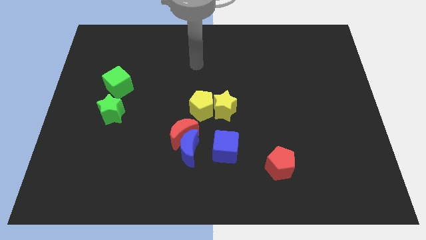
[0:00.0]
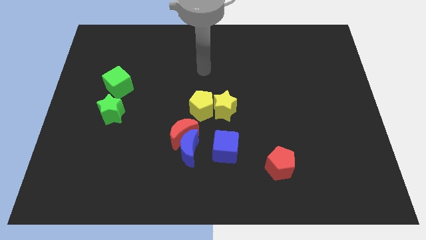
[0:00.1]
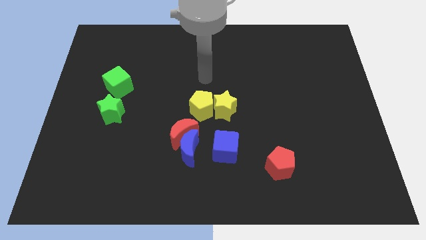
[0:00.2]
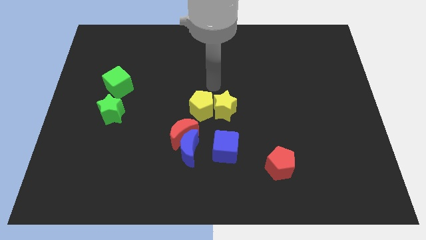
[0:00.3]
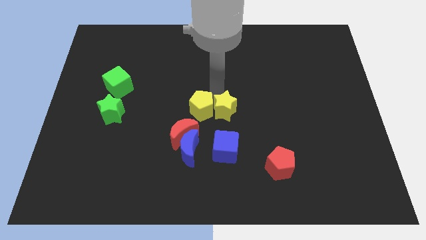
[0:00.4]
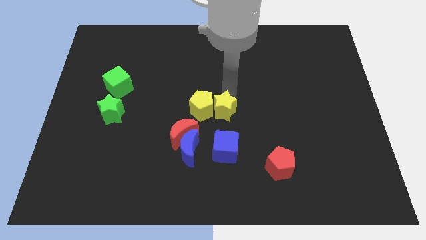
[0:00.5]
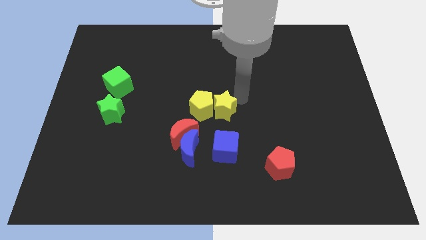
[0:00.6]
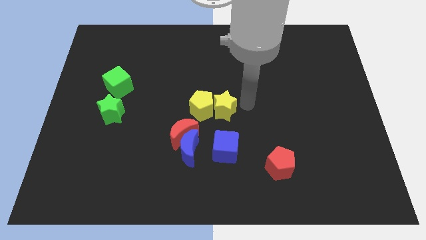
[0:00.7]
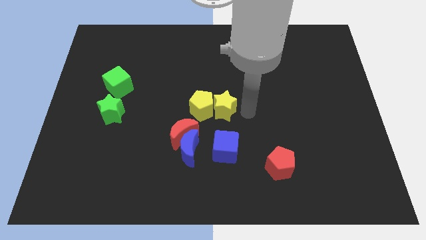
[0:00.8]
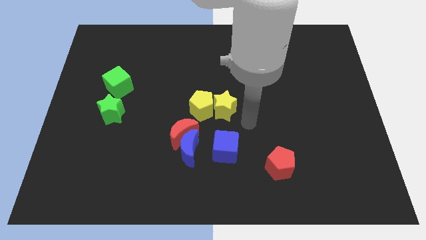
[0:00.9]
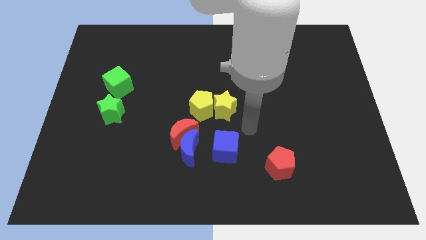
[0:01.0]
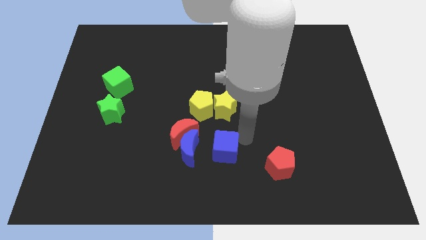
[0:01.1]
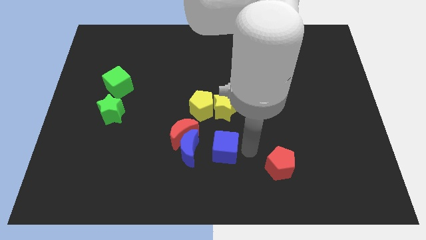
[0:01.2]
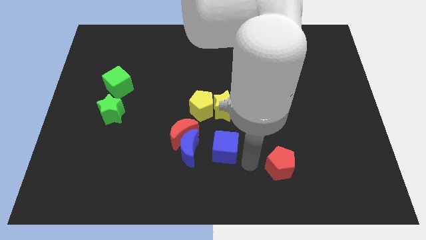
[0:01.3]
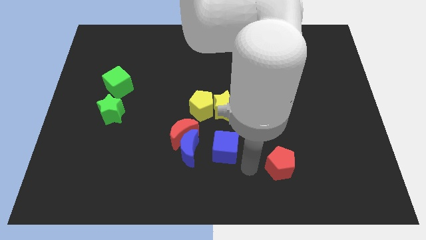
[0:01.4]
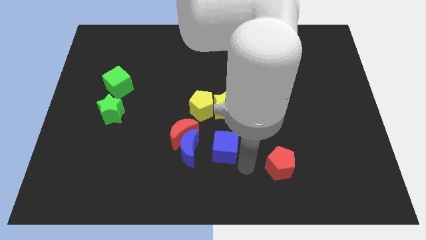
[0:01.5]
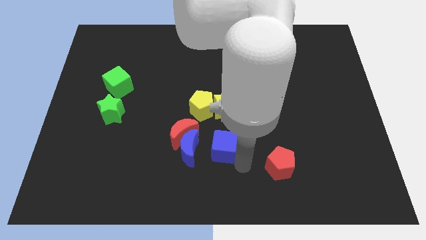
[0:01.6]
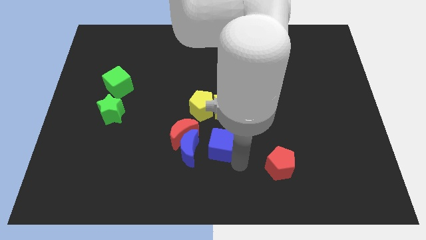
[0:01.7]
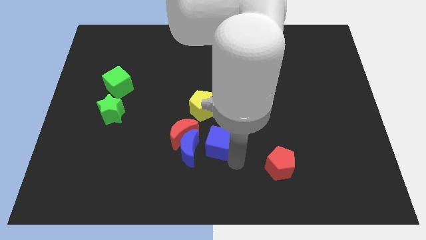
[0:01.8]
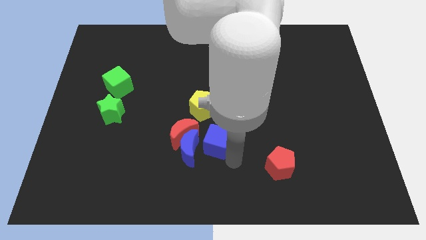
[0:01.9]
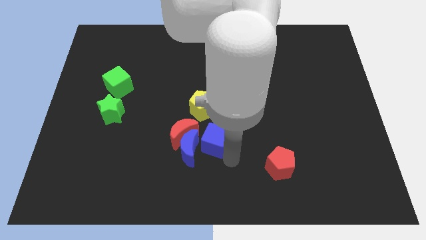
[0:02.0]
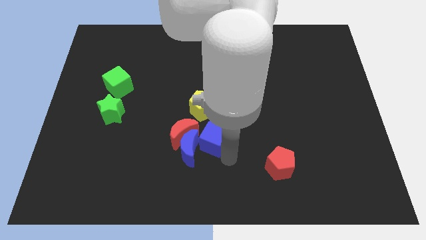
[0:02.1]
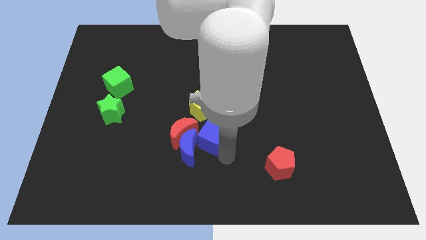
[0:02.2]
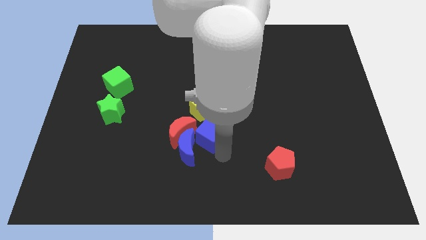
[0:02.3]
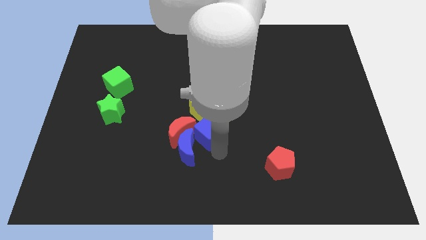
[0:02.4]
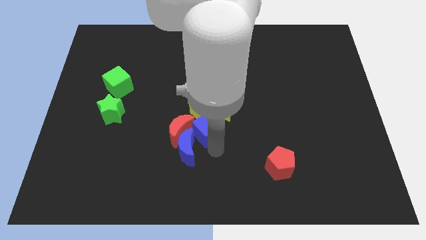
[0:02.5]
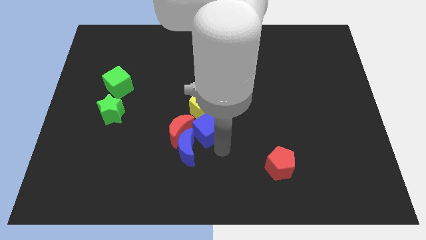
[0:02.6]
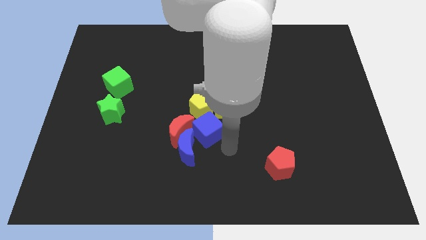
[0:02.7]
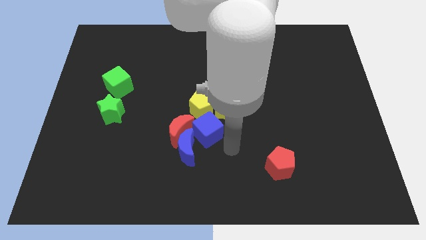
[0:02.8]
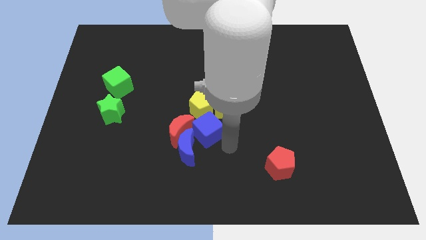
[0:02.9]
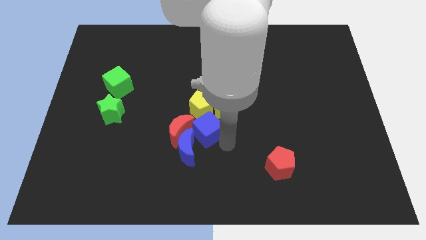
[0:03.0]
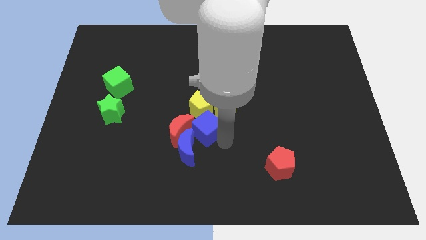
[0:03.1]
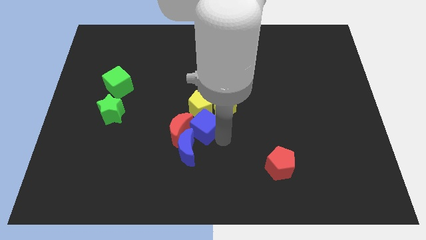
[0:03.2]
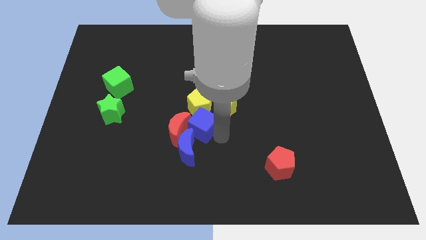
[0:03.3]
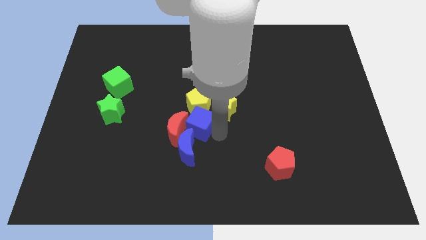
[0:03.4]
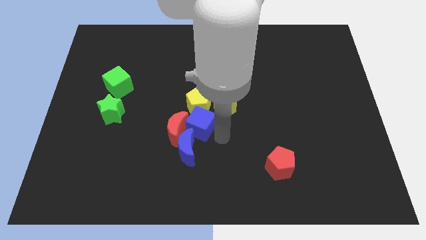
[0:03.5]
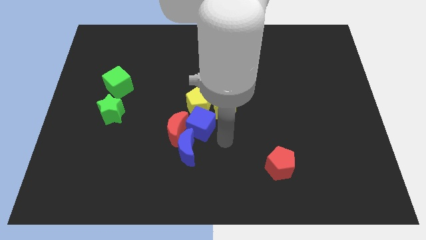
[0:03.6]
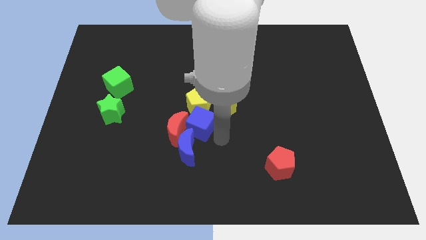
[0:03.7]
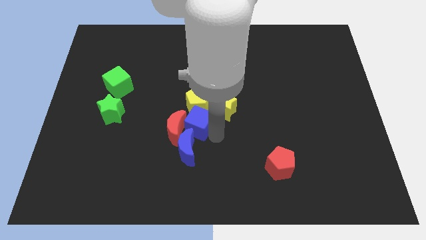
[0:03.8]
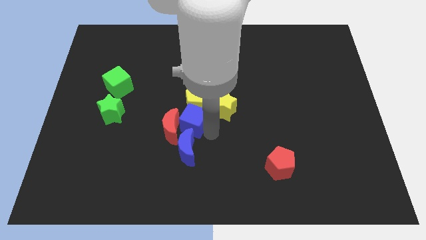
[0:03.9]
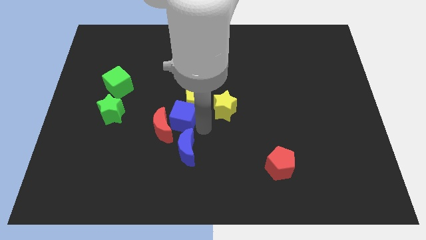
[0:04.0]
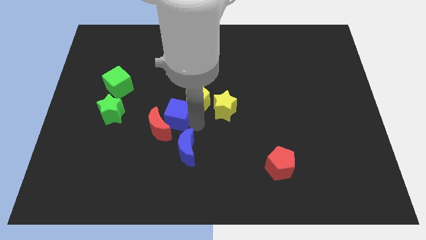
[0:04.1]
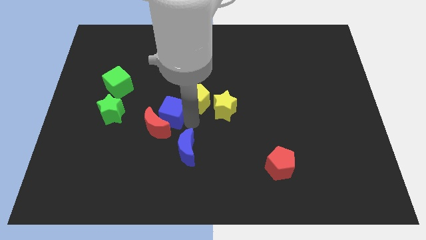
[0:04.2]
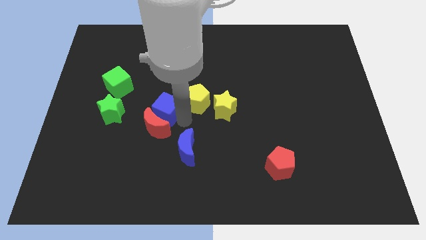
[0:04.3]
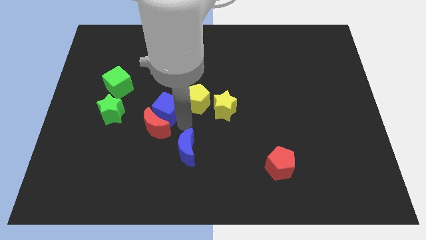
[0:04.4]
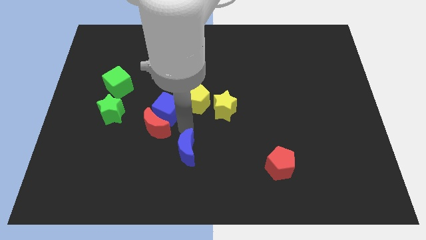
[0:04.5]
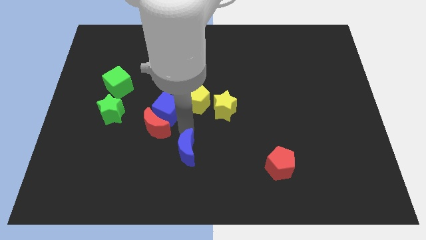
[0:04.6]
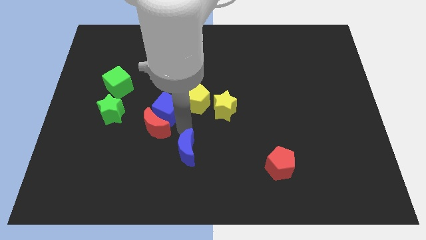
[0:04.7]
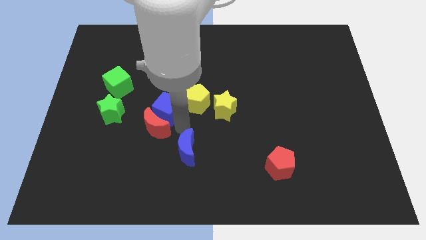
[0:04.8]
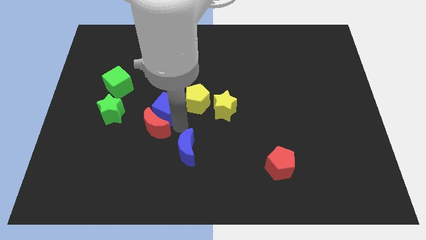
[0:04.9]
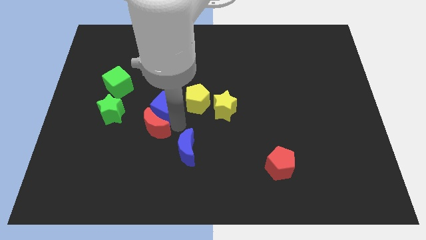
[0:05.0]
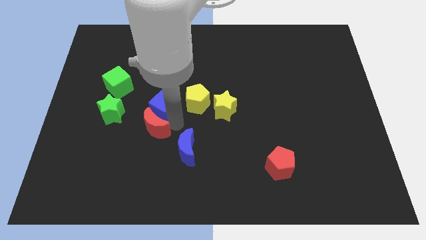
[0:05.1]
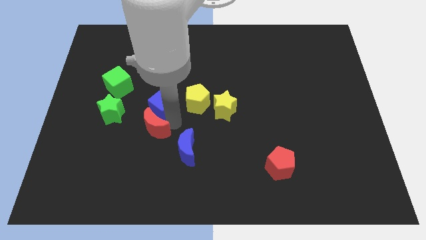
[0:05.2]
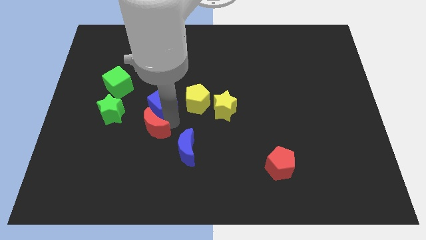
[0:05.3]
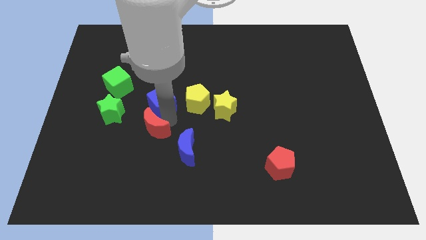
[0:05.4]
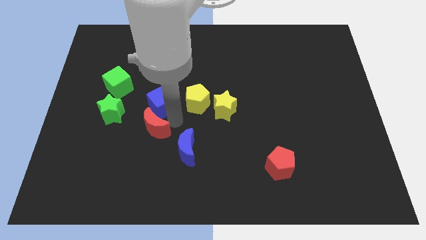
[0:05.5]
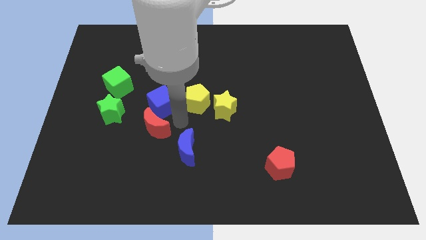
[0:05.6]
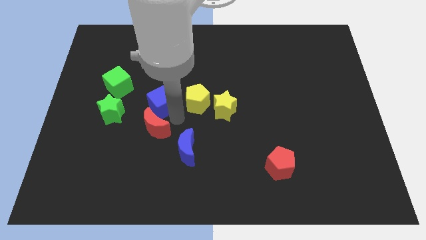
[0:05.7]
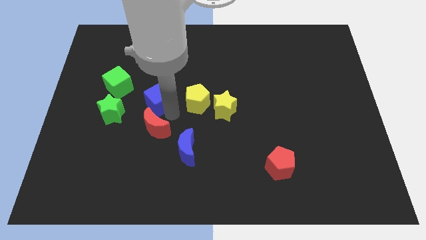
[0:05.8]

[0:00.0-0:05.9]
move the blue cube diagonally upwards and to the left

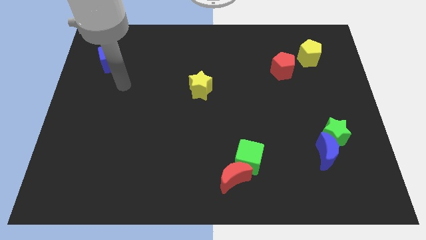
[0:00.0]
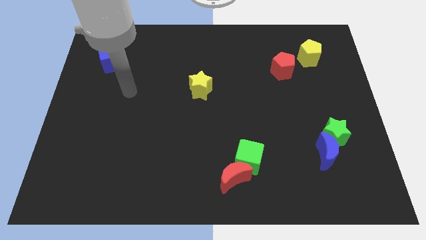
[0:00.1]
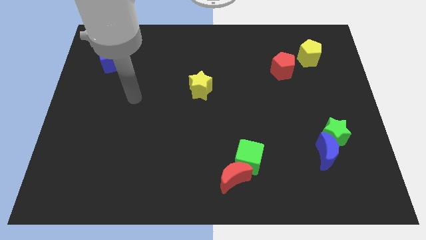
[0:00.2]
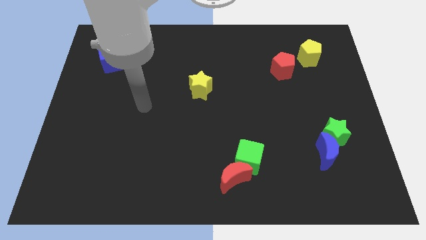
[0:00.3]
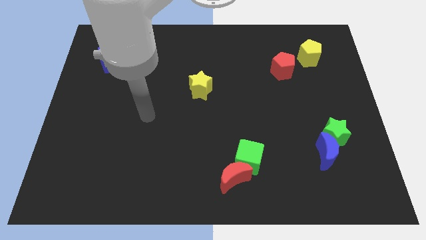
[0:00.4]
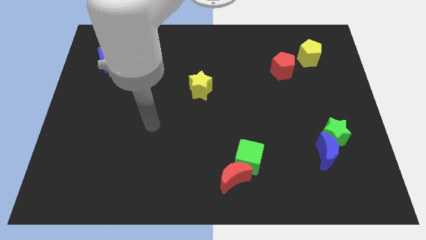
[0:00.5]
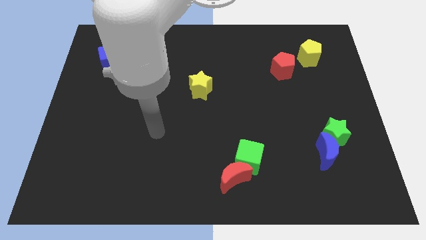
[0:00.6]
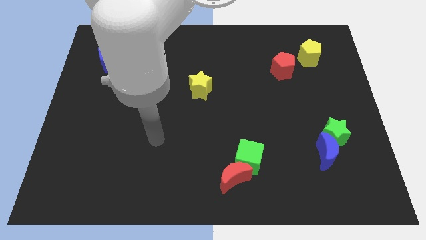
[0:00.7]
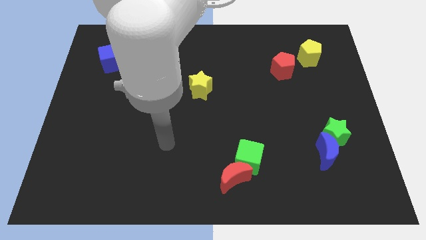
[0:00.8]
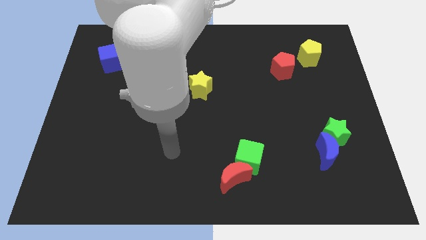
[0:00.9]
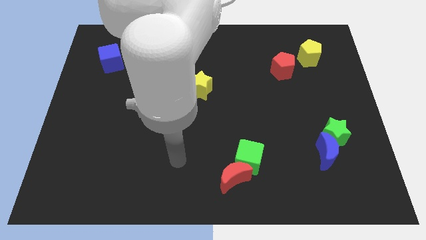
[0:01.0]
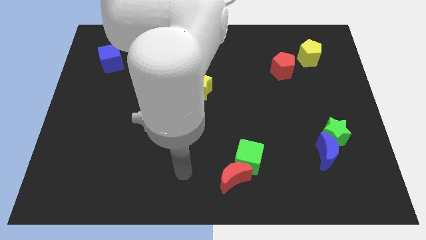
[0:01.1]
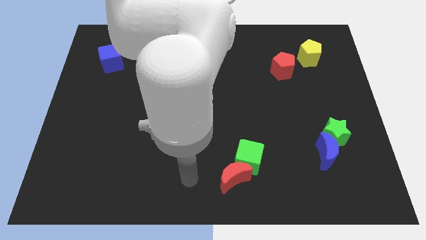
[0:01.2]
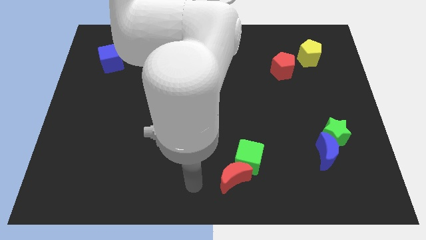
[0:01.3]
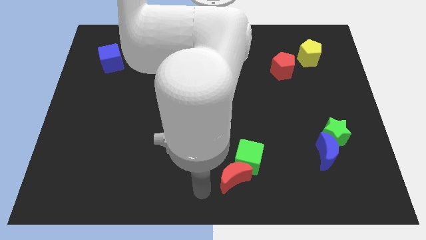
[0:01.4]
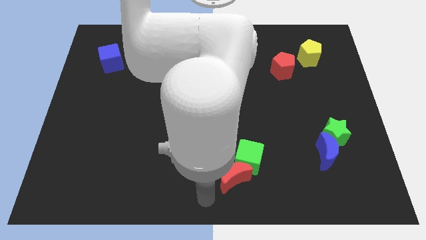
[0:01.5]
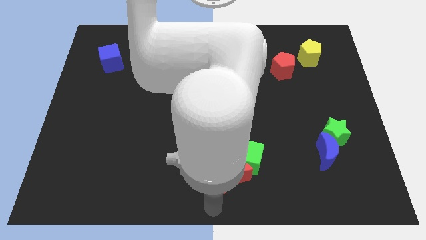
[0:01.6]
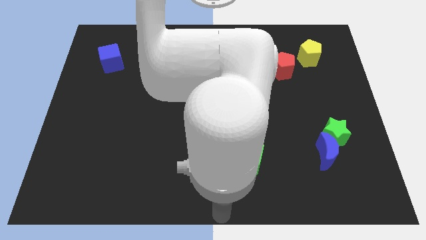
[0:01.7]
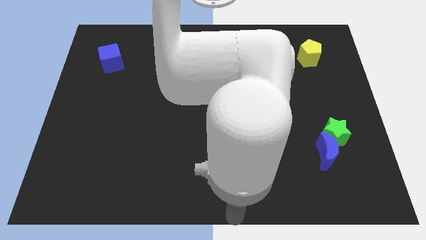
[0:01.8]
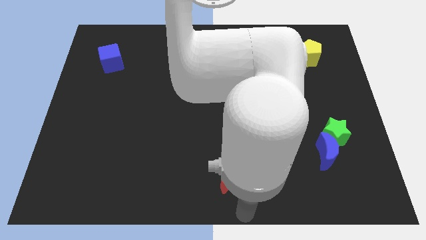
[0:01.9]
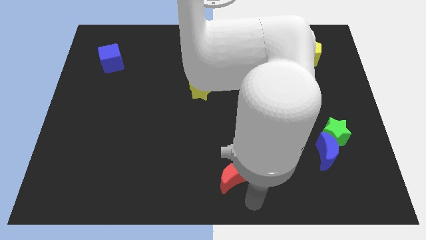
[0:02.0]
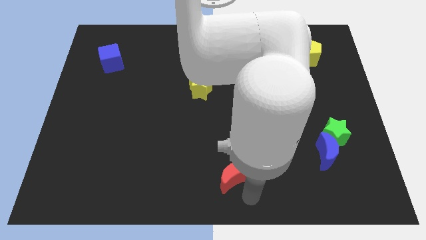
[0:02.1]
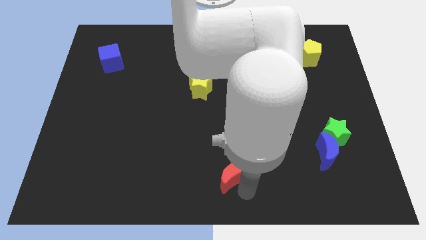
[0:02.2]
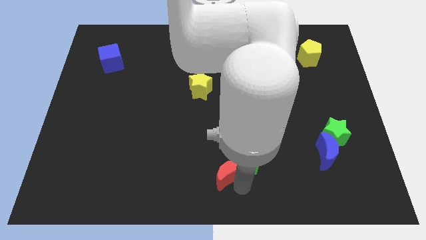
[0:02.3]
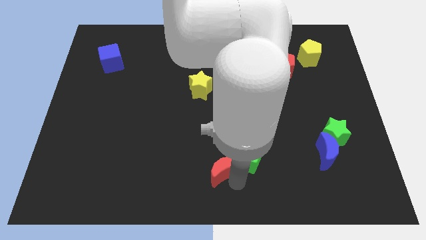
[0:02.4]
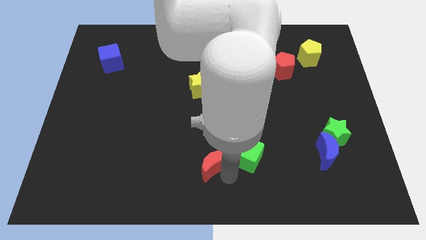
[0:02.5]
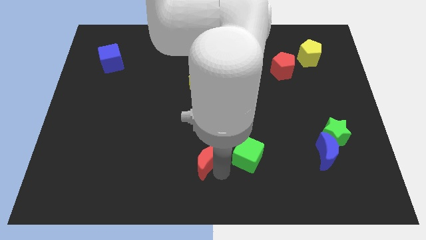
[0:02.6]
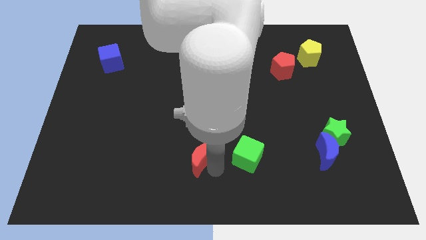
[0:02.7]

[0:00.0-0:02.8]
move the red moon upwards and left diagonally a little
